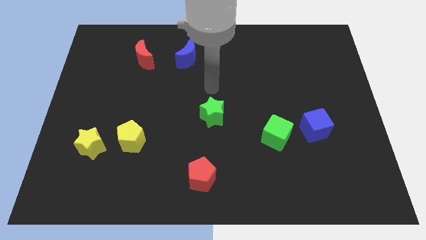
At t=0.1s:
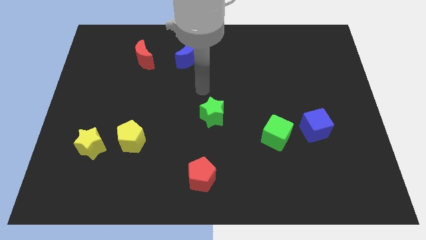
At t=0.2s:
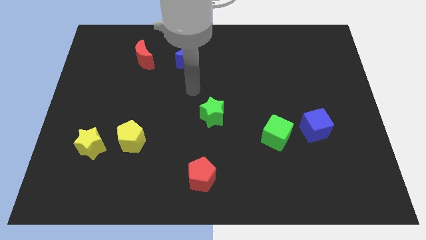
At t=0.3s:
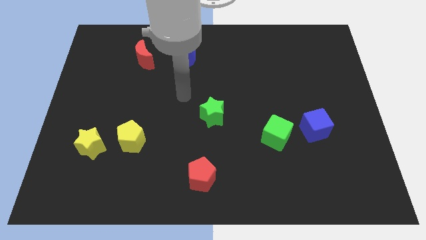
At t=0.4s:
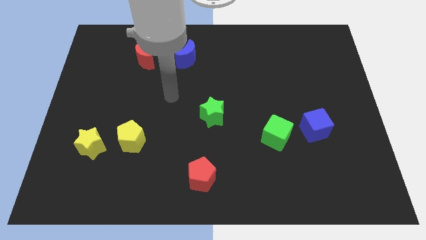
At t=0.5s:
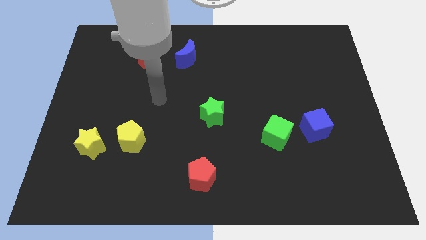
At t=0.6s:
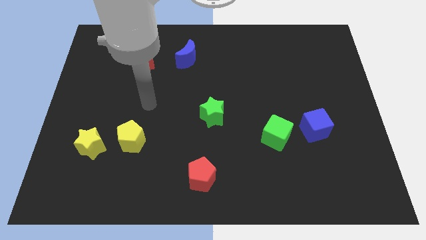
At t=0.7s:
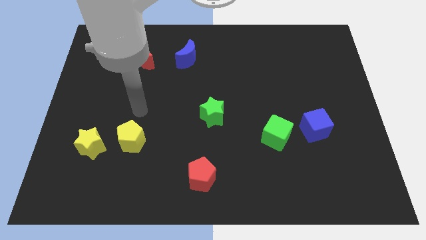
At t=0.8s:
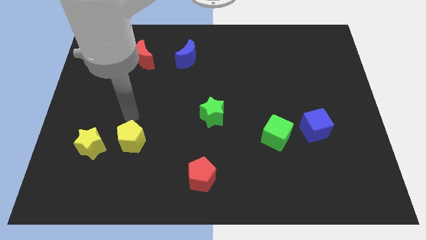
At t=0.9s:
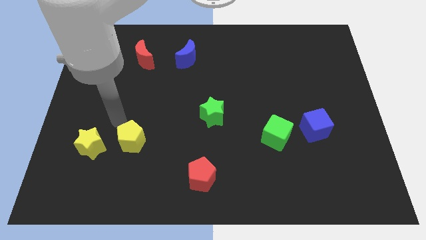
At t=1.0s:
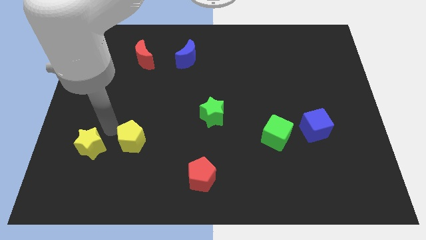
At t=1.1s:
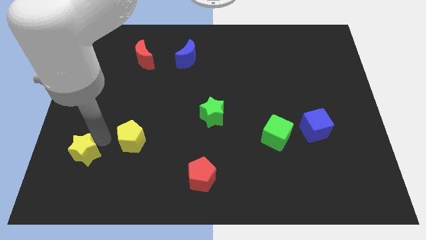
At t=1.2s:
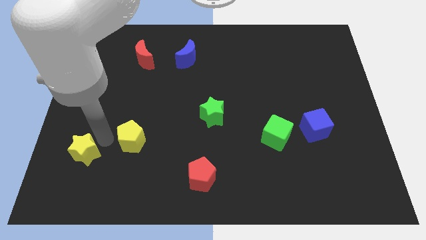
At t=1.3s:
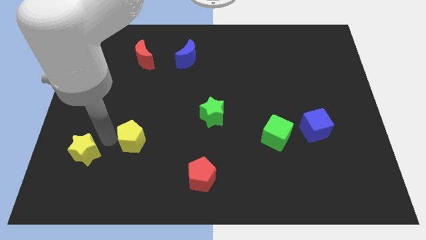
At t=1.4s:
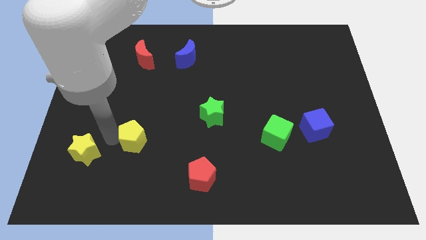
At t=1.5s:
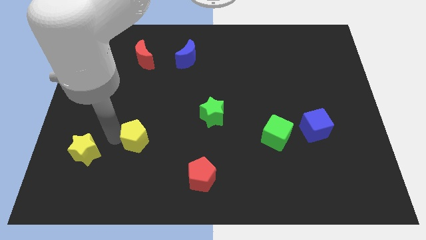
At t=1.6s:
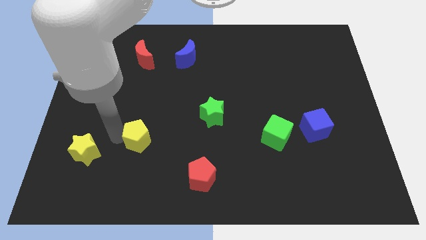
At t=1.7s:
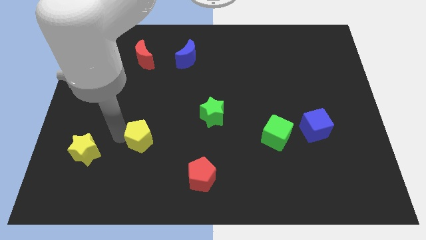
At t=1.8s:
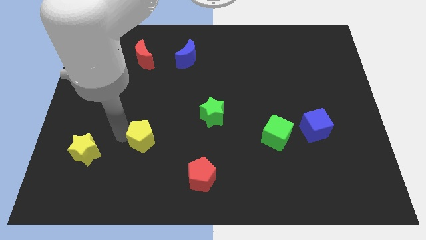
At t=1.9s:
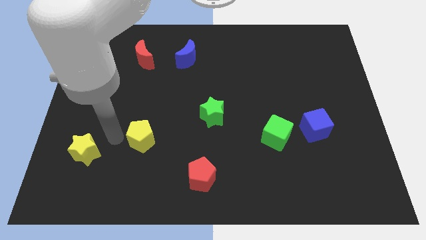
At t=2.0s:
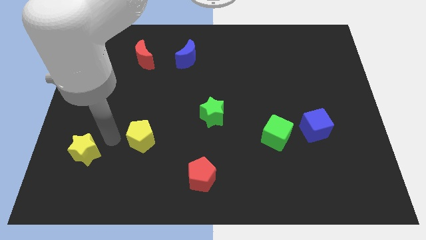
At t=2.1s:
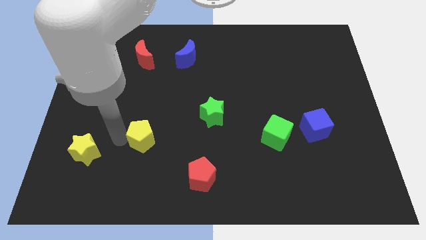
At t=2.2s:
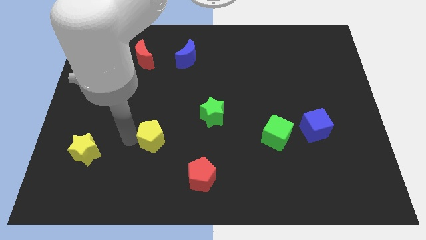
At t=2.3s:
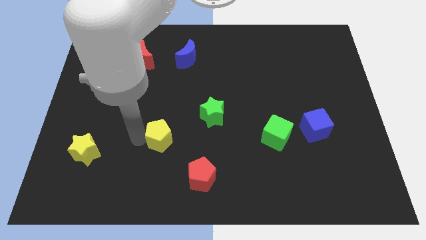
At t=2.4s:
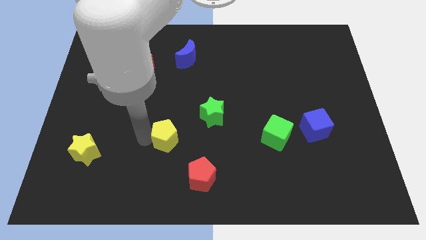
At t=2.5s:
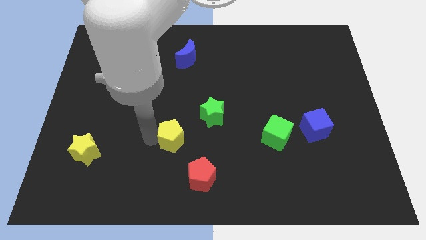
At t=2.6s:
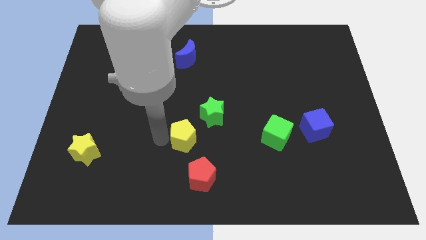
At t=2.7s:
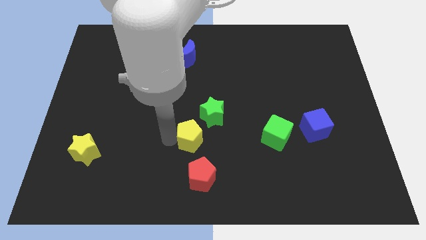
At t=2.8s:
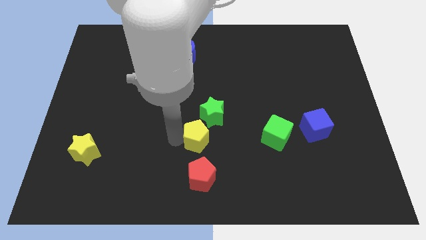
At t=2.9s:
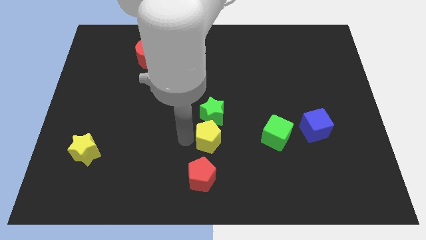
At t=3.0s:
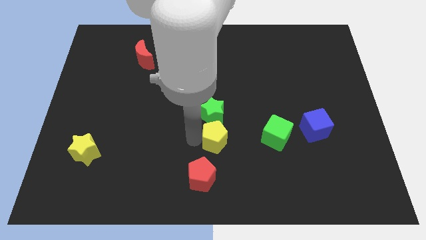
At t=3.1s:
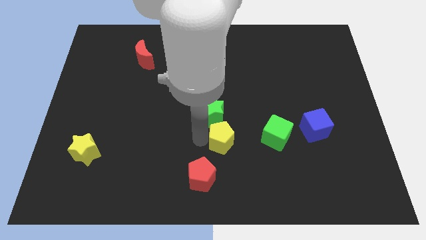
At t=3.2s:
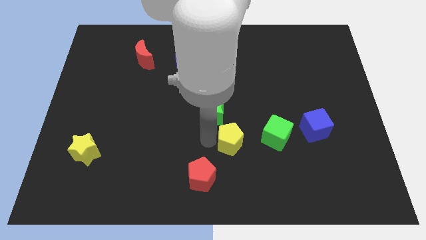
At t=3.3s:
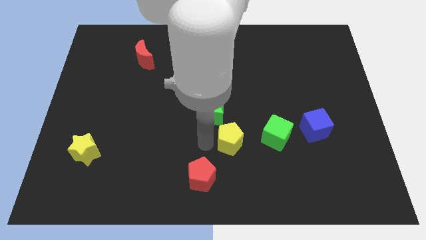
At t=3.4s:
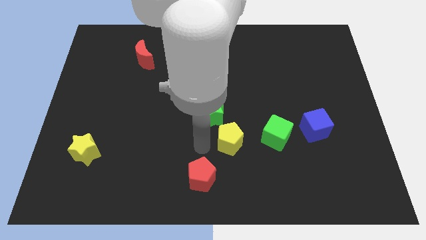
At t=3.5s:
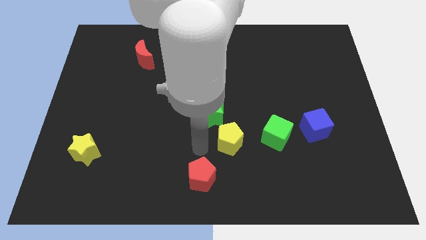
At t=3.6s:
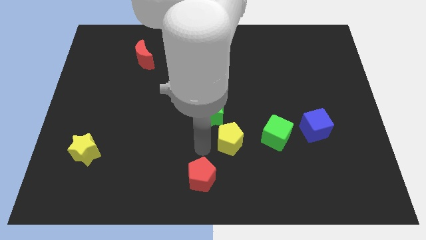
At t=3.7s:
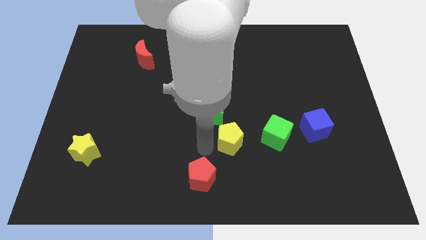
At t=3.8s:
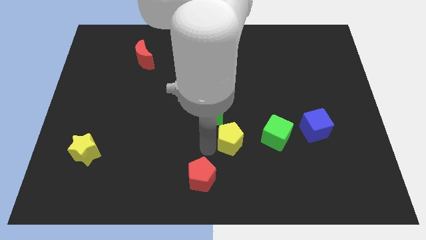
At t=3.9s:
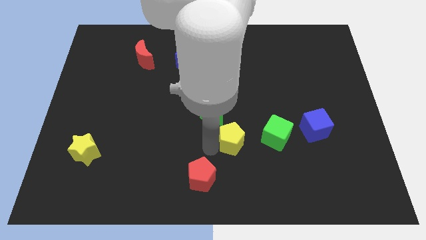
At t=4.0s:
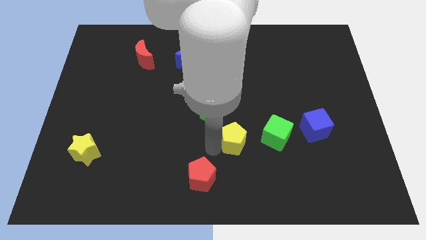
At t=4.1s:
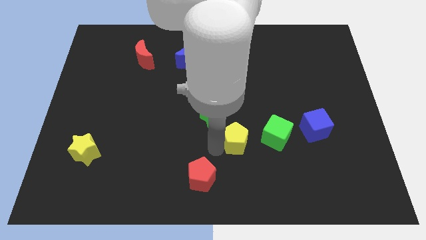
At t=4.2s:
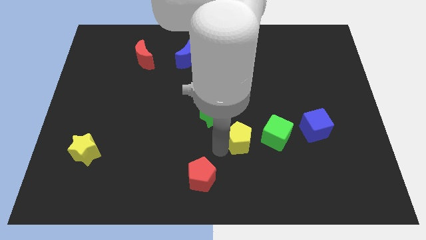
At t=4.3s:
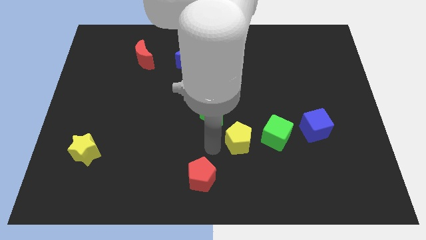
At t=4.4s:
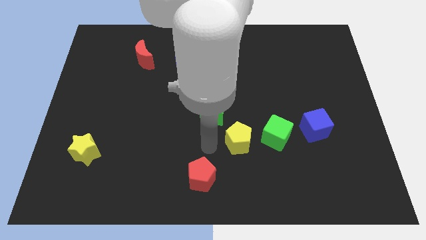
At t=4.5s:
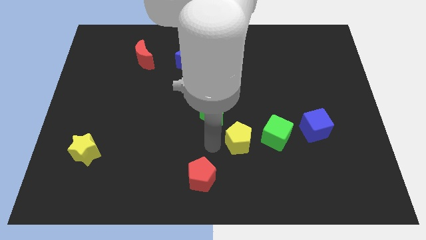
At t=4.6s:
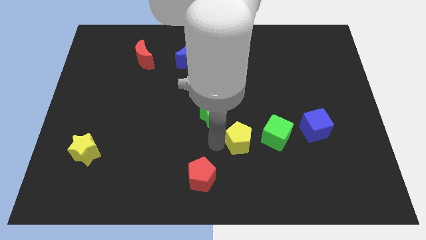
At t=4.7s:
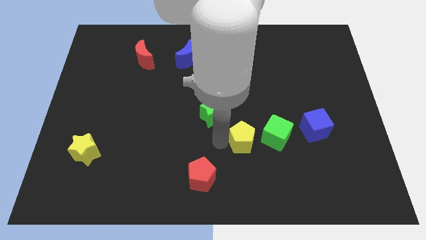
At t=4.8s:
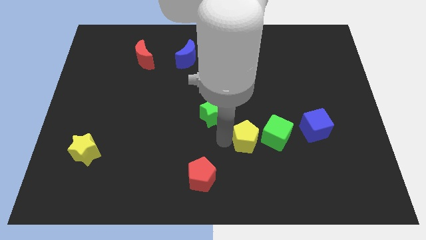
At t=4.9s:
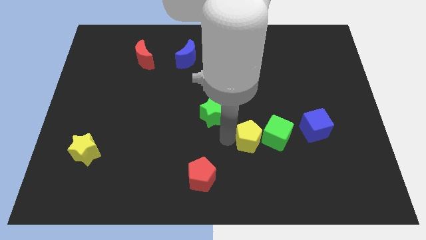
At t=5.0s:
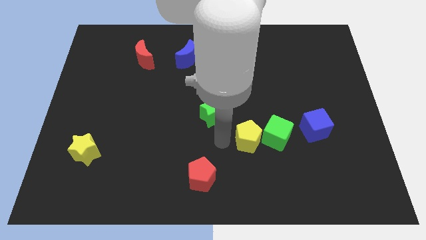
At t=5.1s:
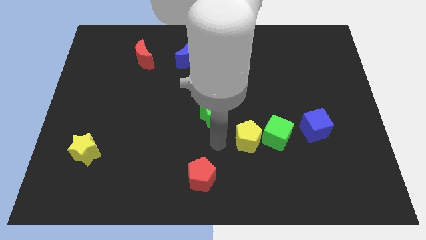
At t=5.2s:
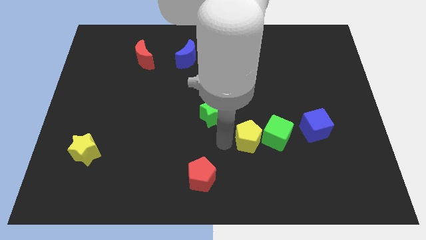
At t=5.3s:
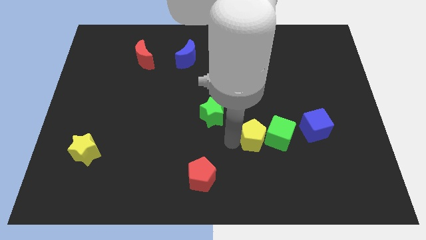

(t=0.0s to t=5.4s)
move the yellow pentagon towards the green cube

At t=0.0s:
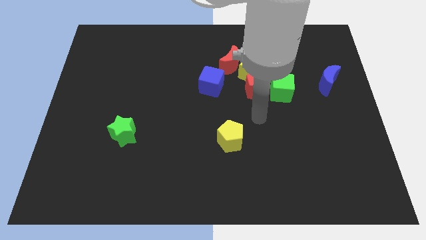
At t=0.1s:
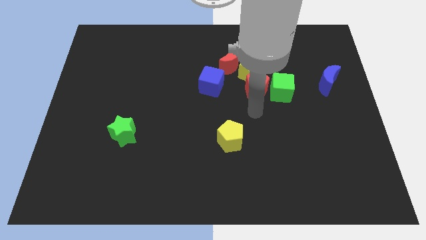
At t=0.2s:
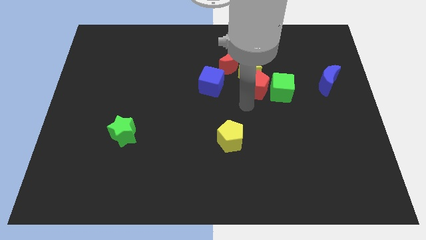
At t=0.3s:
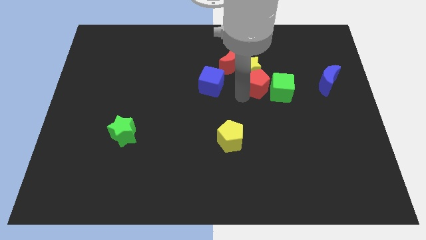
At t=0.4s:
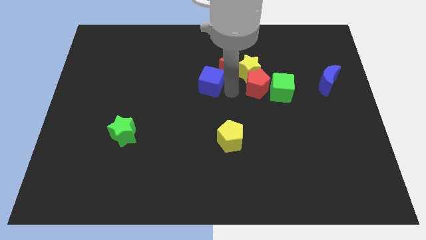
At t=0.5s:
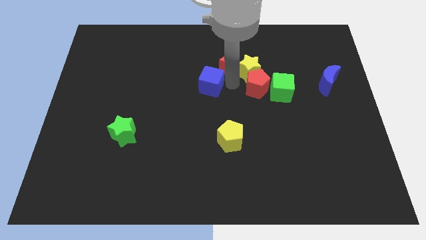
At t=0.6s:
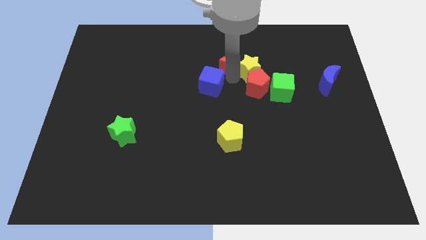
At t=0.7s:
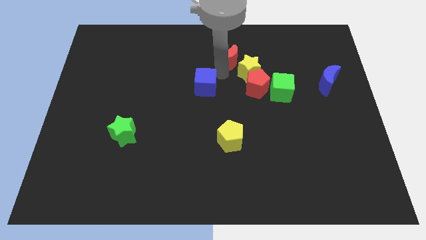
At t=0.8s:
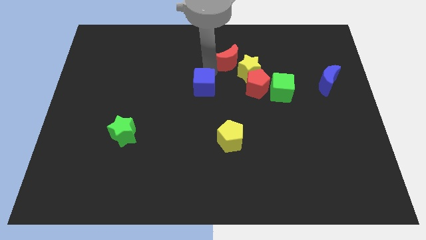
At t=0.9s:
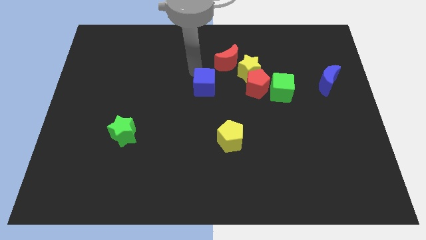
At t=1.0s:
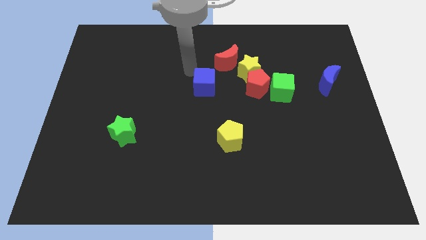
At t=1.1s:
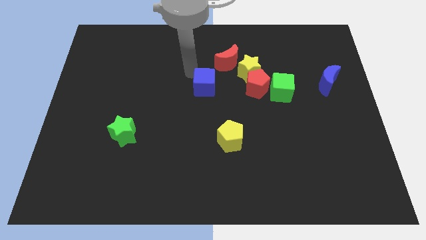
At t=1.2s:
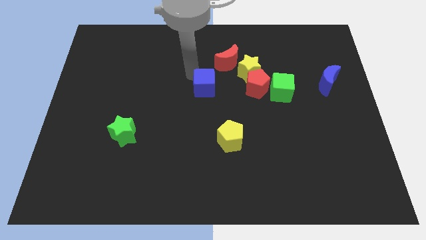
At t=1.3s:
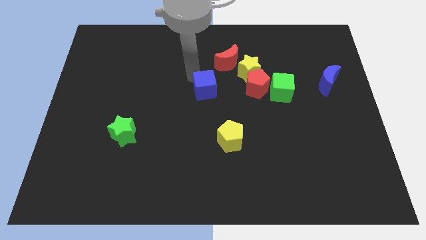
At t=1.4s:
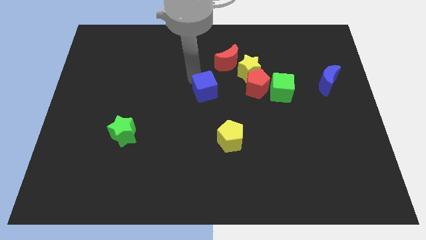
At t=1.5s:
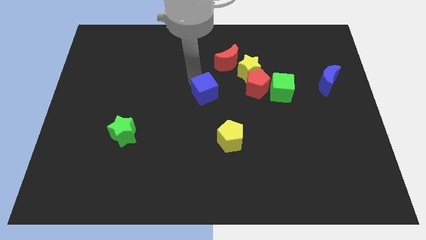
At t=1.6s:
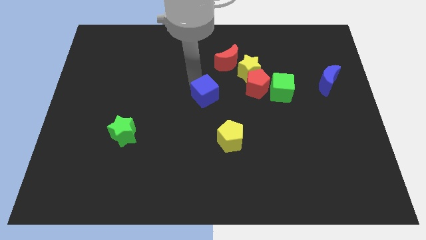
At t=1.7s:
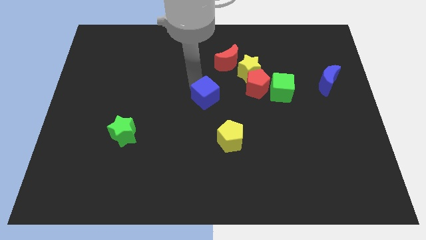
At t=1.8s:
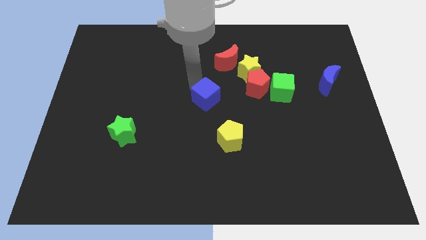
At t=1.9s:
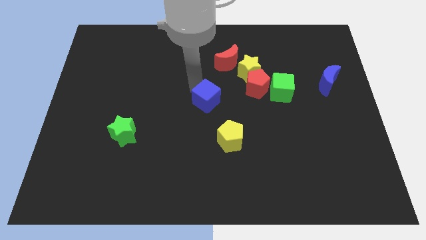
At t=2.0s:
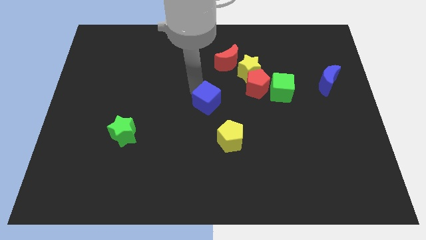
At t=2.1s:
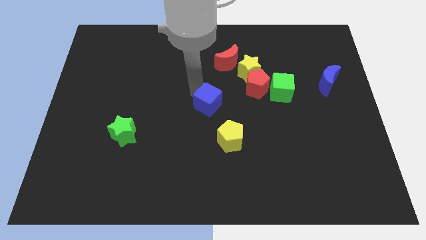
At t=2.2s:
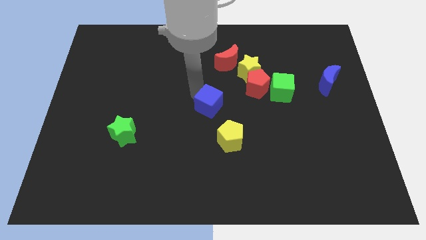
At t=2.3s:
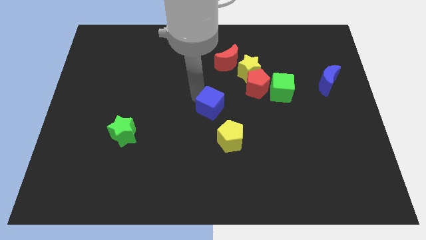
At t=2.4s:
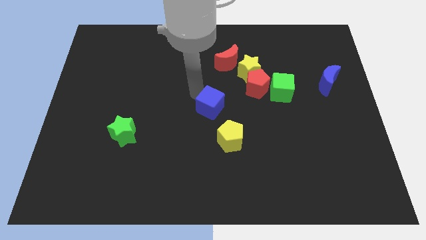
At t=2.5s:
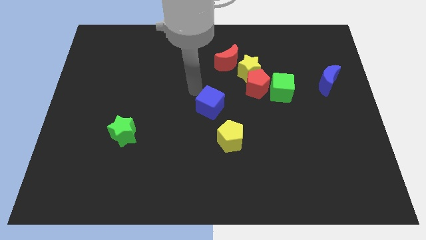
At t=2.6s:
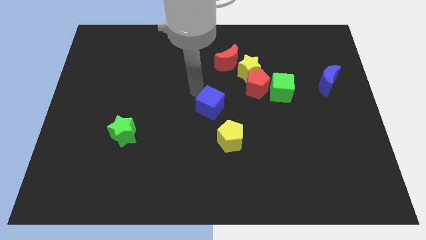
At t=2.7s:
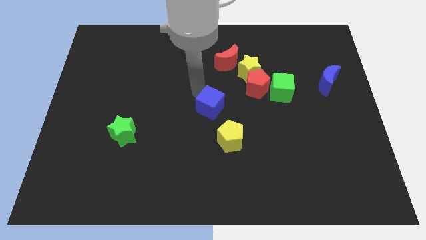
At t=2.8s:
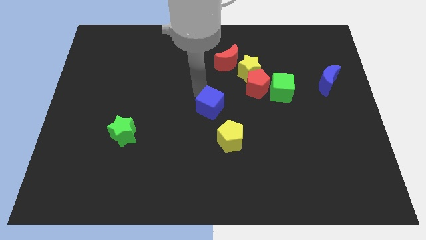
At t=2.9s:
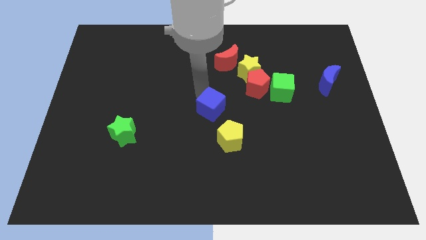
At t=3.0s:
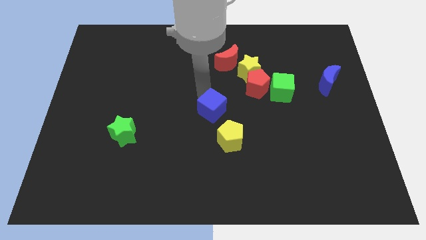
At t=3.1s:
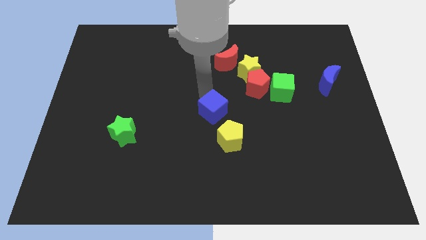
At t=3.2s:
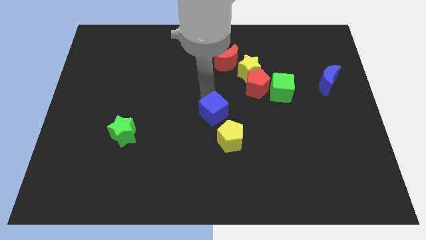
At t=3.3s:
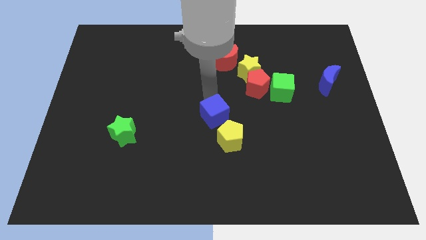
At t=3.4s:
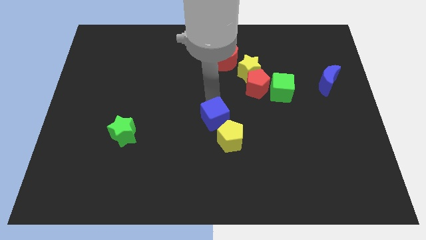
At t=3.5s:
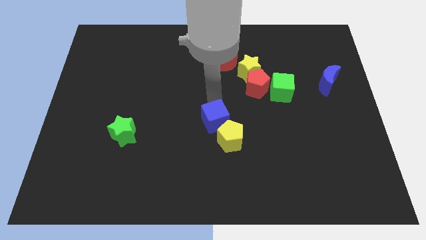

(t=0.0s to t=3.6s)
move the blue cube close to the yellow pentagon
